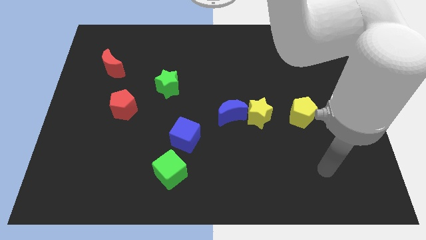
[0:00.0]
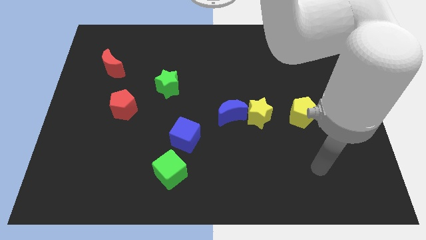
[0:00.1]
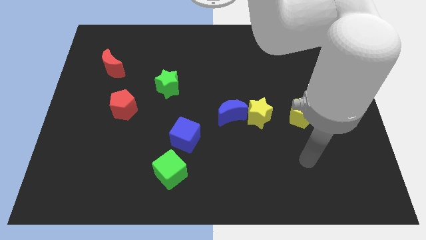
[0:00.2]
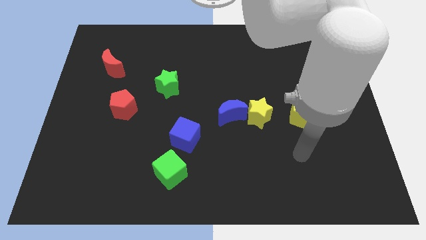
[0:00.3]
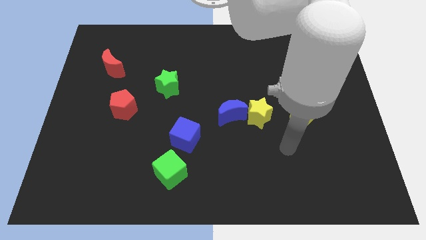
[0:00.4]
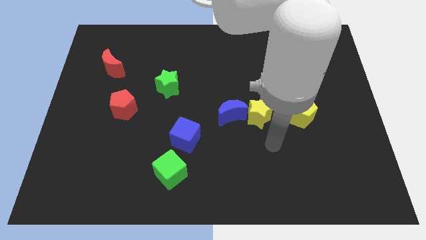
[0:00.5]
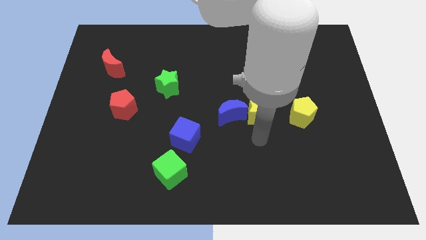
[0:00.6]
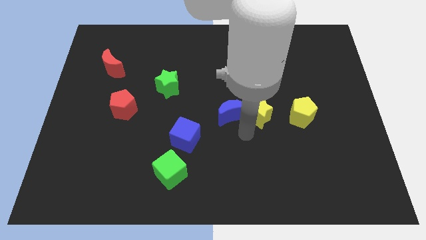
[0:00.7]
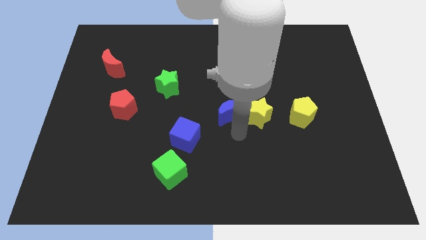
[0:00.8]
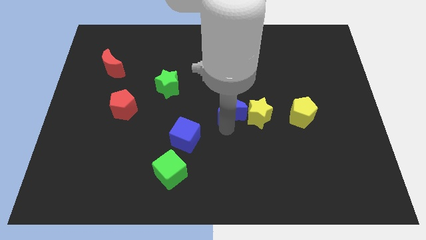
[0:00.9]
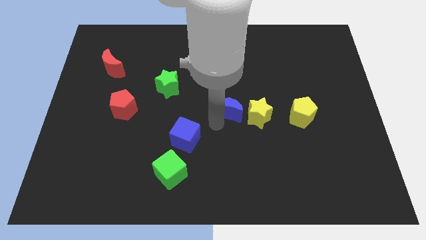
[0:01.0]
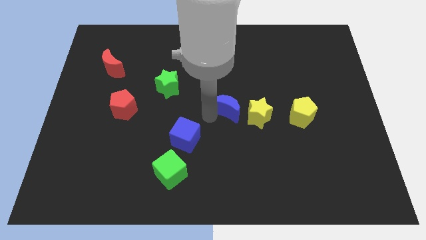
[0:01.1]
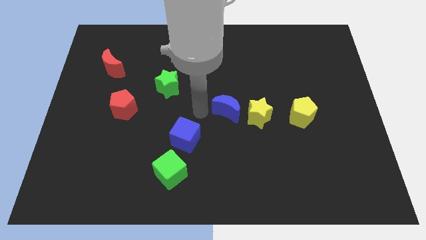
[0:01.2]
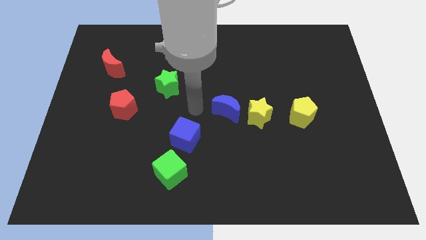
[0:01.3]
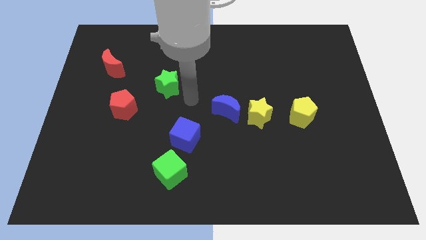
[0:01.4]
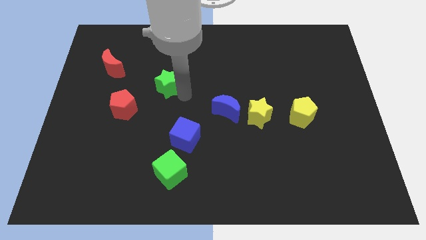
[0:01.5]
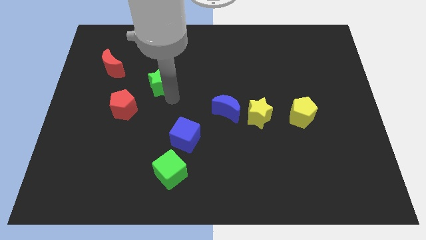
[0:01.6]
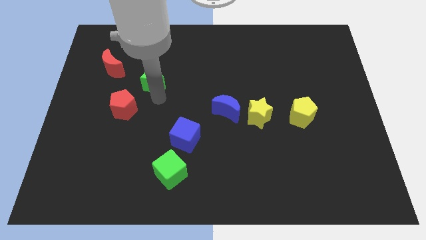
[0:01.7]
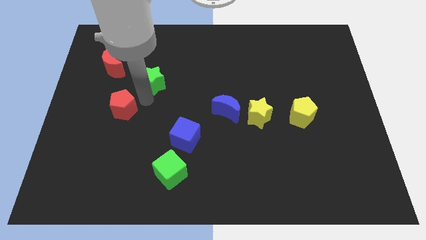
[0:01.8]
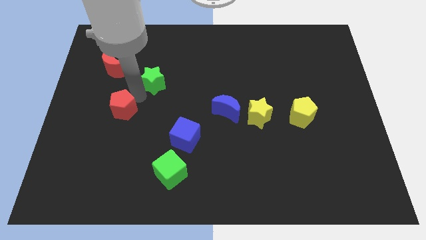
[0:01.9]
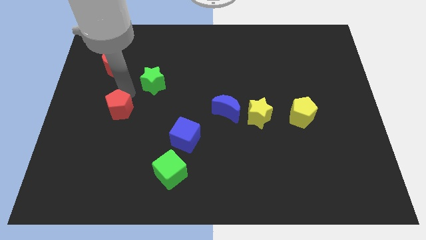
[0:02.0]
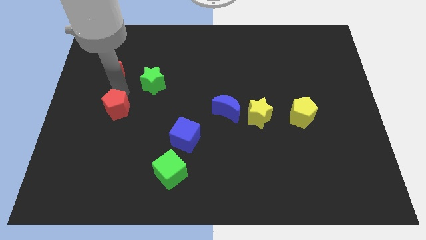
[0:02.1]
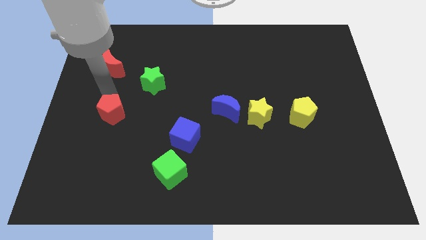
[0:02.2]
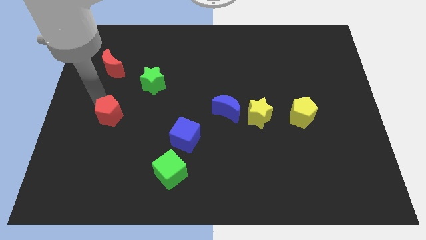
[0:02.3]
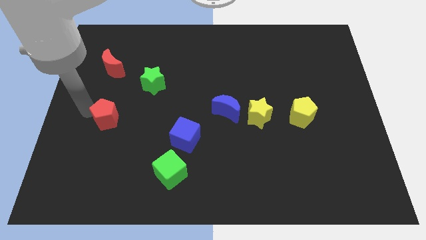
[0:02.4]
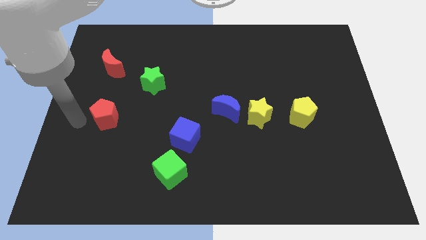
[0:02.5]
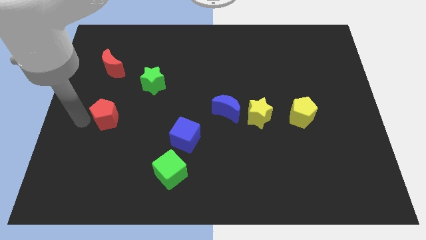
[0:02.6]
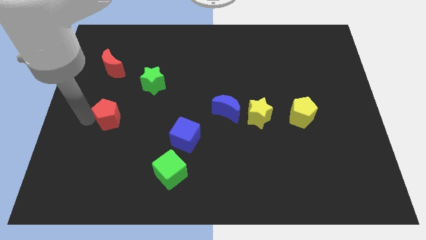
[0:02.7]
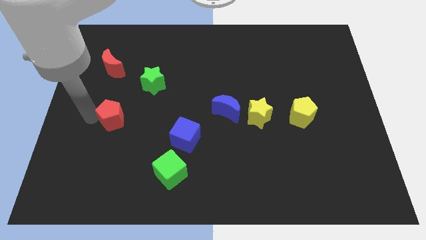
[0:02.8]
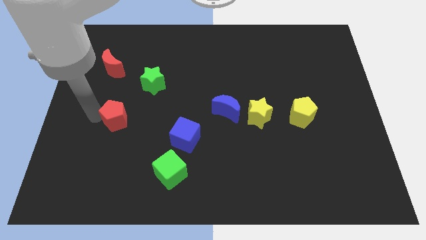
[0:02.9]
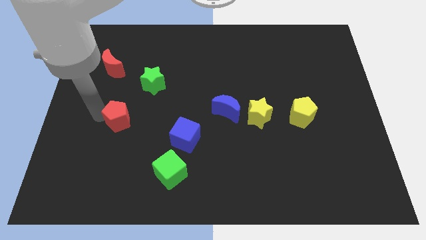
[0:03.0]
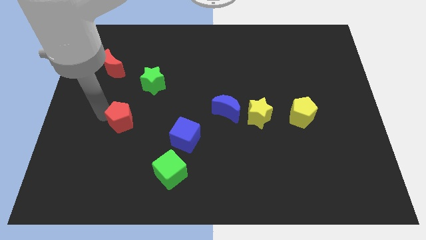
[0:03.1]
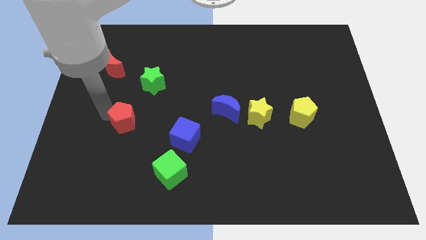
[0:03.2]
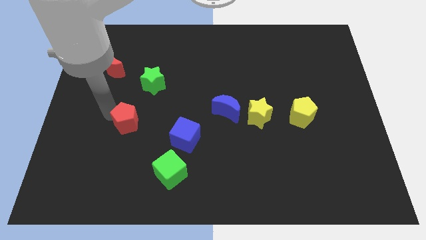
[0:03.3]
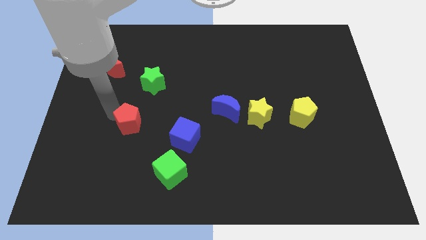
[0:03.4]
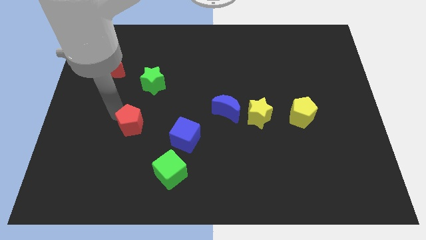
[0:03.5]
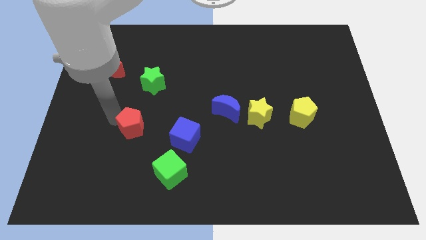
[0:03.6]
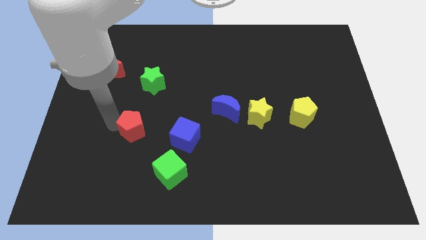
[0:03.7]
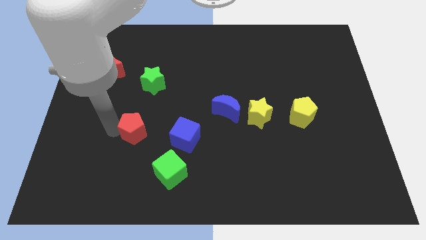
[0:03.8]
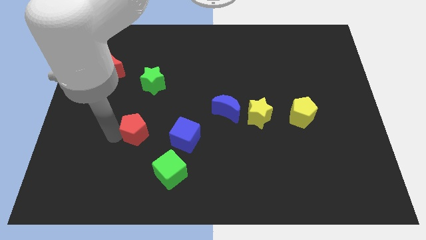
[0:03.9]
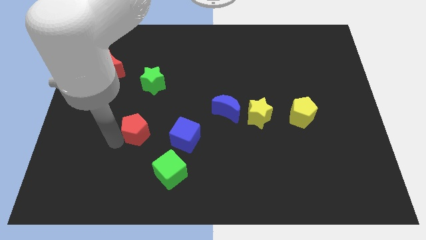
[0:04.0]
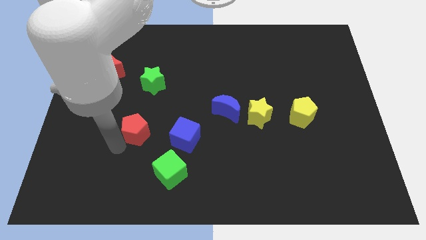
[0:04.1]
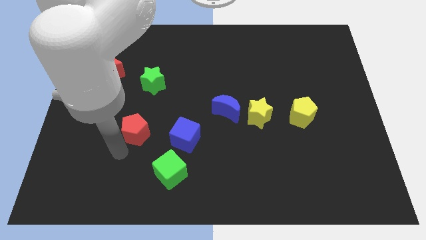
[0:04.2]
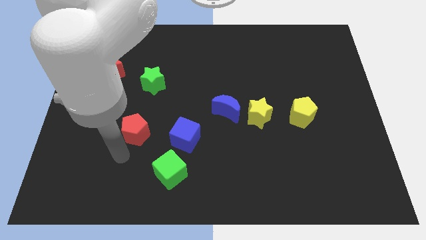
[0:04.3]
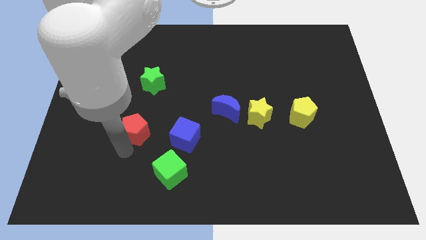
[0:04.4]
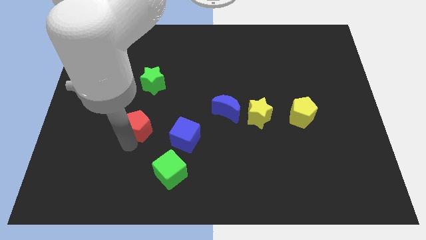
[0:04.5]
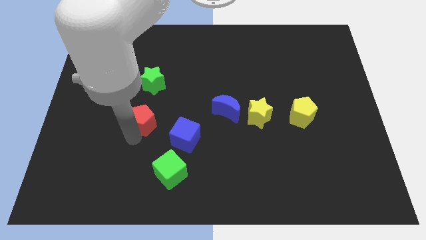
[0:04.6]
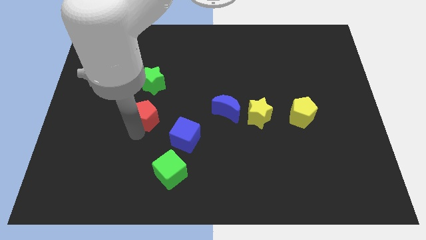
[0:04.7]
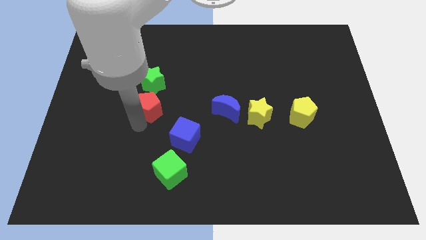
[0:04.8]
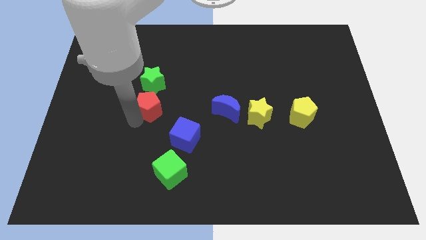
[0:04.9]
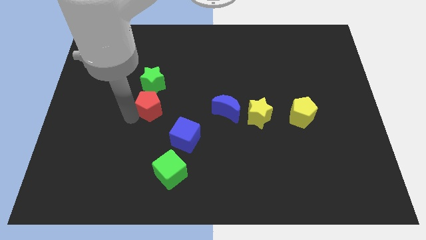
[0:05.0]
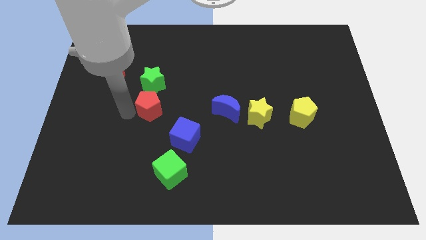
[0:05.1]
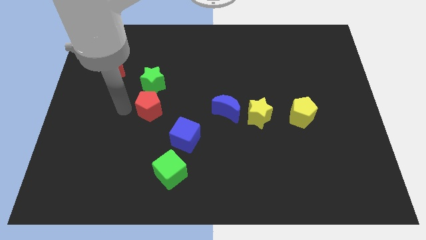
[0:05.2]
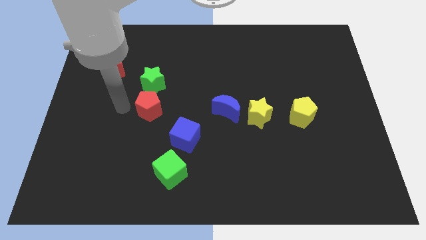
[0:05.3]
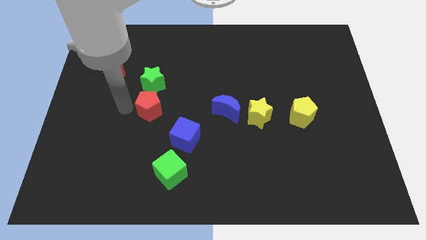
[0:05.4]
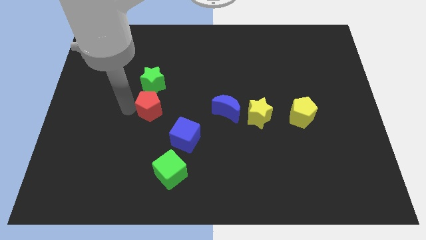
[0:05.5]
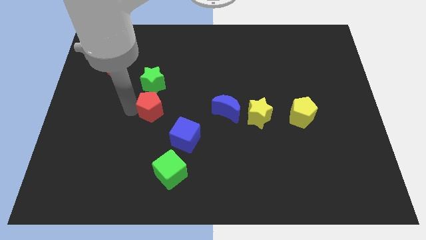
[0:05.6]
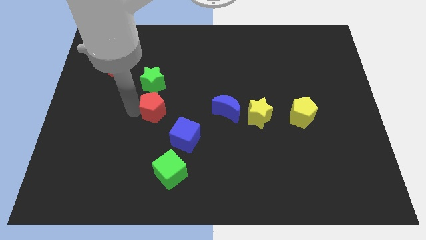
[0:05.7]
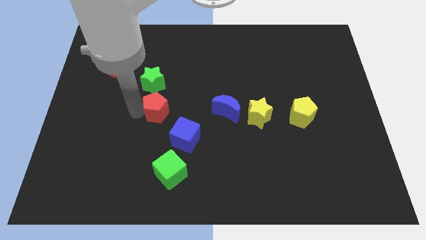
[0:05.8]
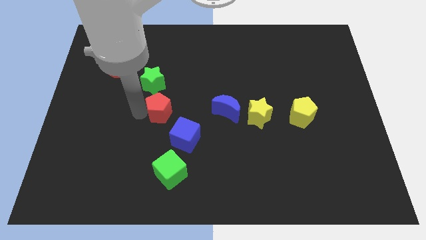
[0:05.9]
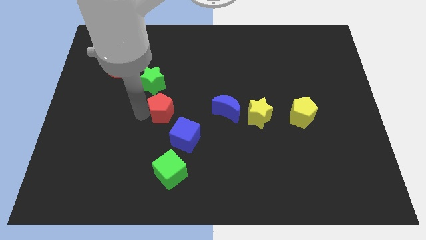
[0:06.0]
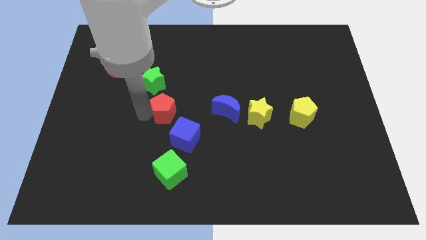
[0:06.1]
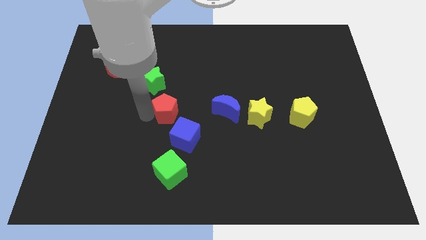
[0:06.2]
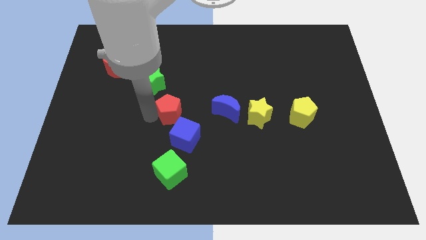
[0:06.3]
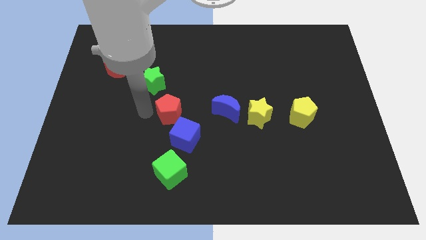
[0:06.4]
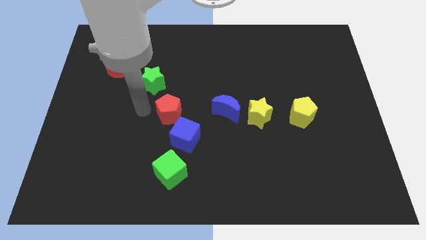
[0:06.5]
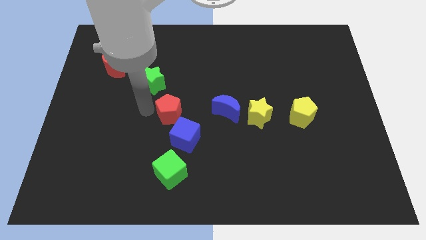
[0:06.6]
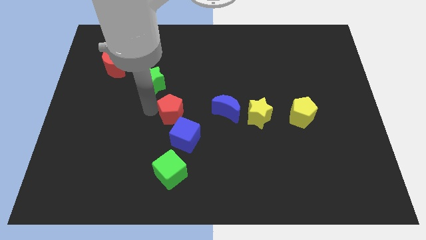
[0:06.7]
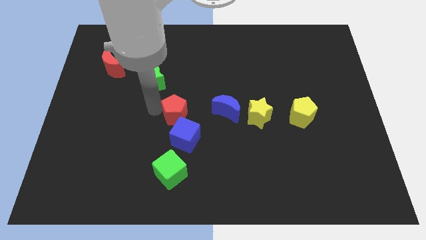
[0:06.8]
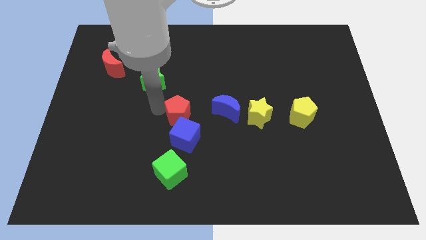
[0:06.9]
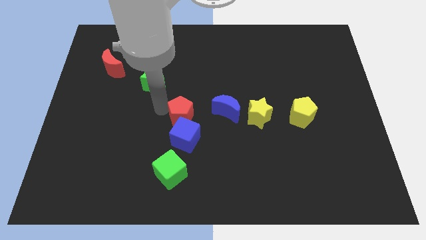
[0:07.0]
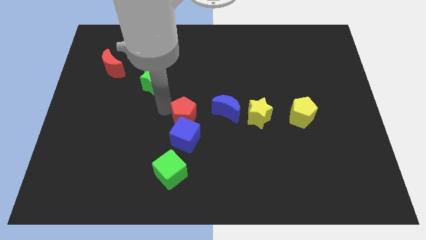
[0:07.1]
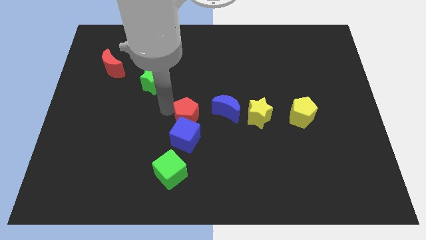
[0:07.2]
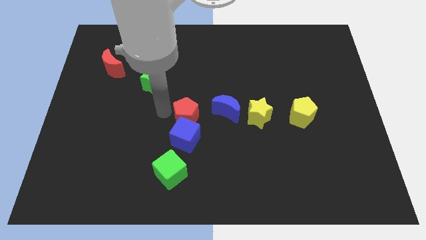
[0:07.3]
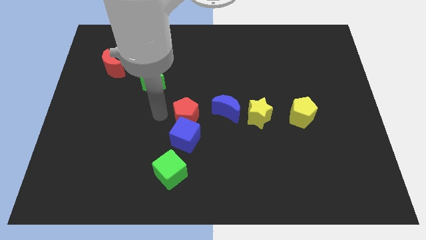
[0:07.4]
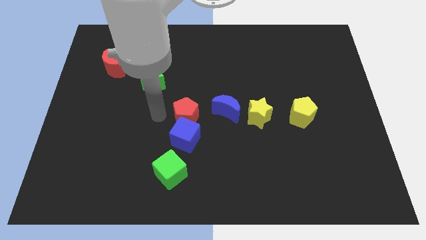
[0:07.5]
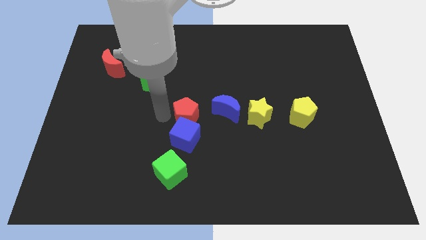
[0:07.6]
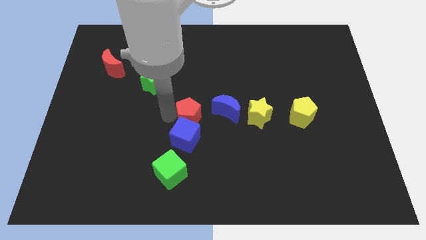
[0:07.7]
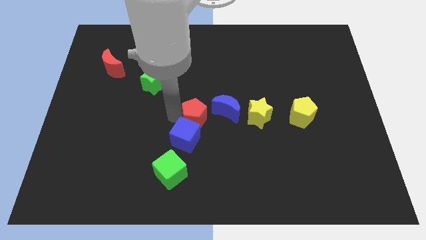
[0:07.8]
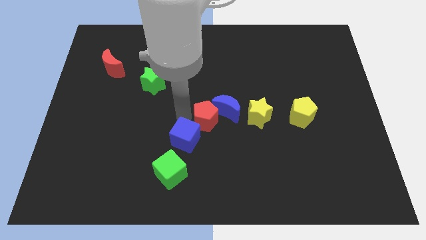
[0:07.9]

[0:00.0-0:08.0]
slide the red pentagon to the blue moon
